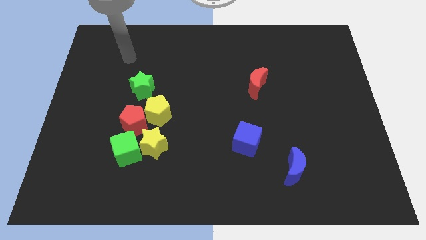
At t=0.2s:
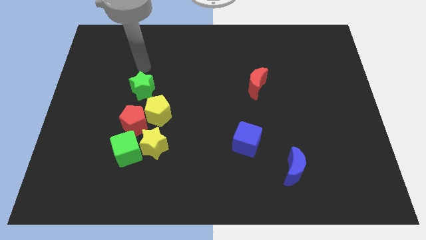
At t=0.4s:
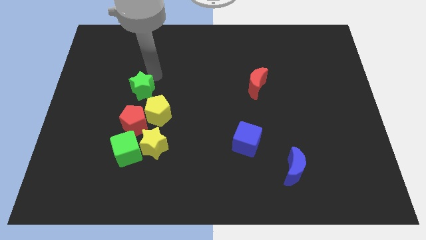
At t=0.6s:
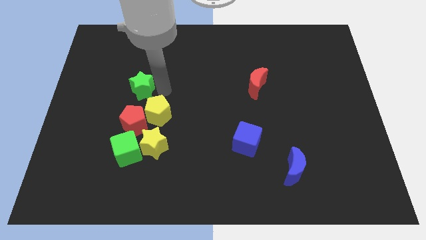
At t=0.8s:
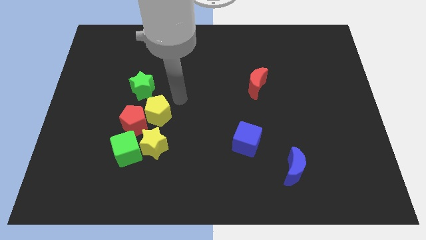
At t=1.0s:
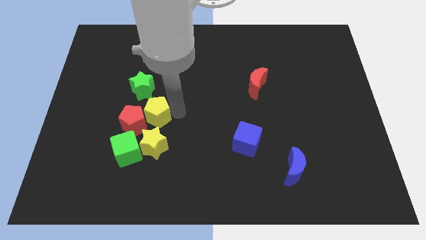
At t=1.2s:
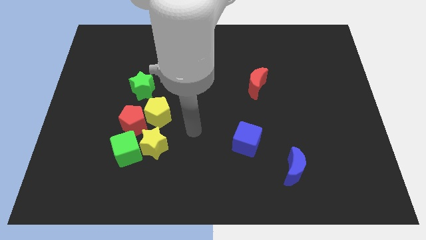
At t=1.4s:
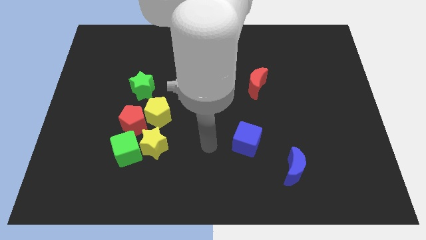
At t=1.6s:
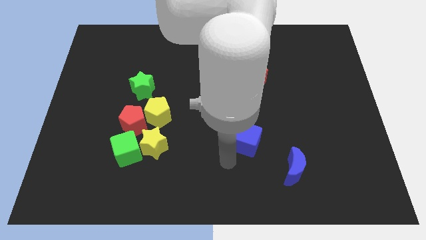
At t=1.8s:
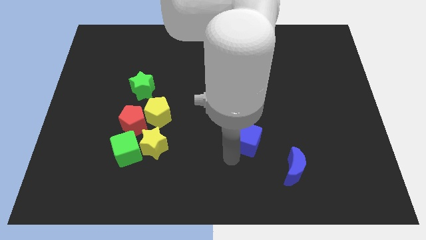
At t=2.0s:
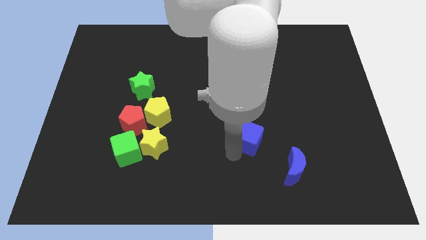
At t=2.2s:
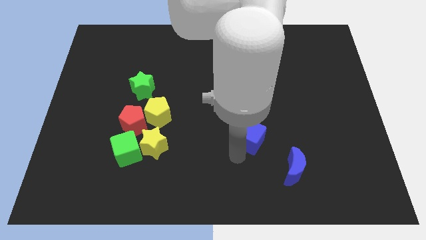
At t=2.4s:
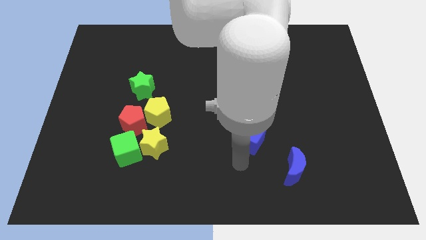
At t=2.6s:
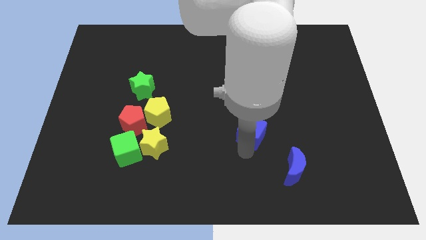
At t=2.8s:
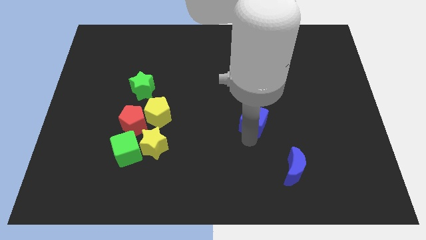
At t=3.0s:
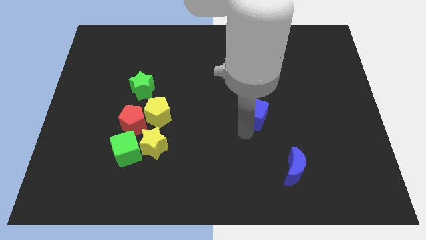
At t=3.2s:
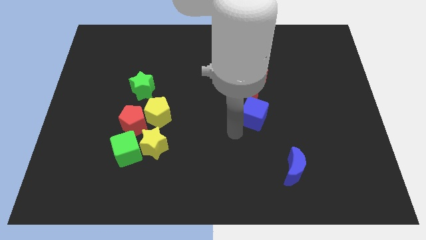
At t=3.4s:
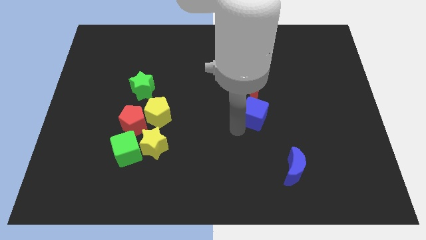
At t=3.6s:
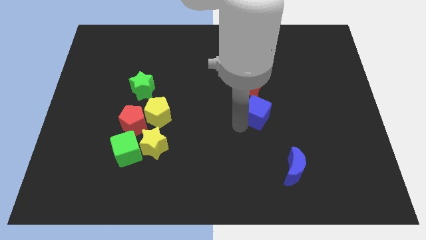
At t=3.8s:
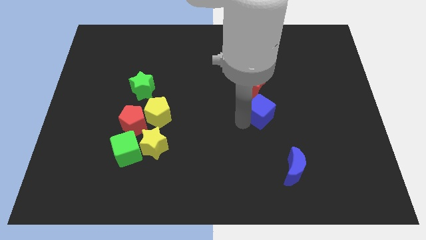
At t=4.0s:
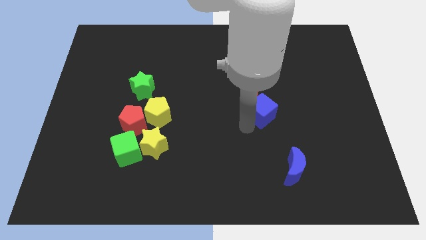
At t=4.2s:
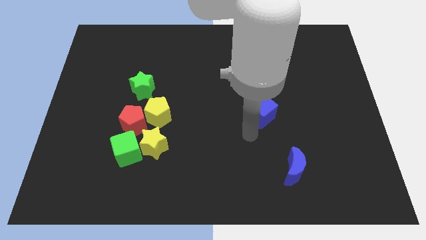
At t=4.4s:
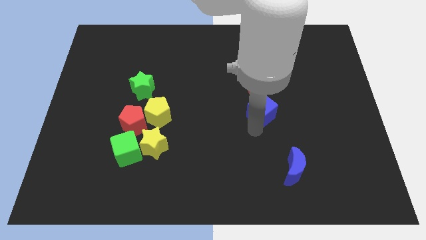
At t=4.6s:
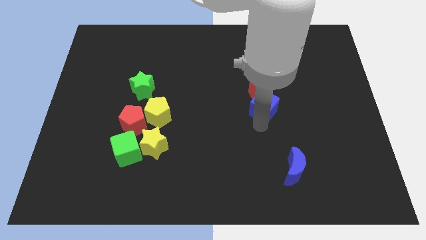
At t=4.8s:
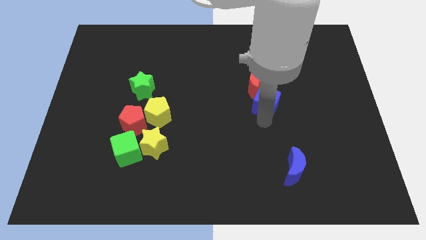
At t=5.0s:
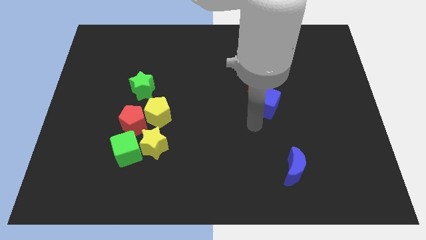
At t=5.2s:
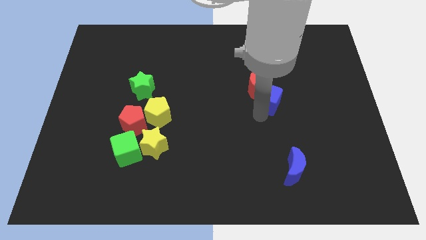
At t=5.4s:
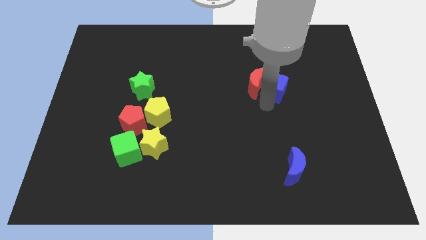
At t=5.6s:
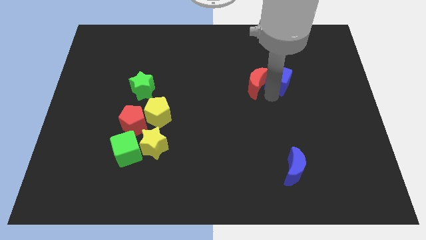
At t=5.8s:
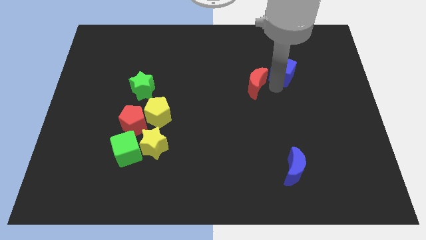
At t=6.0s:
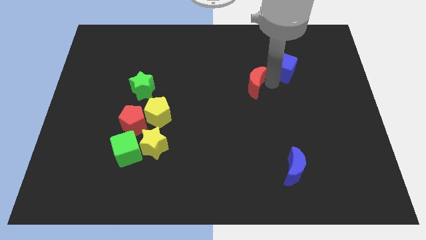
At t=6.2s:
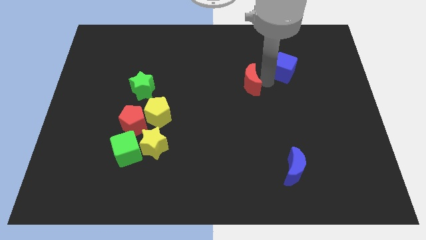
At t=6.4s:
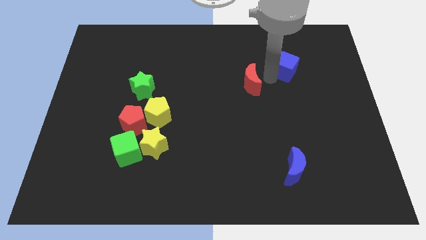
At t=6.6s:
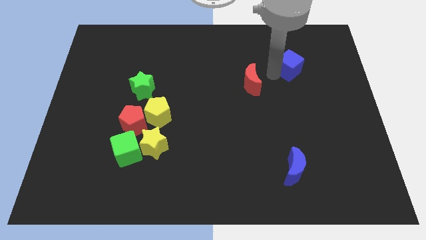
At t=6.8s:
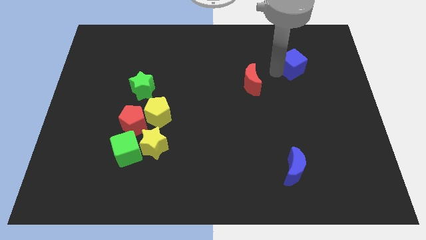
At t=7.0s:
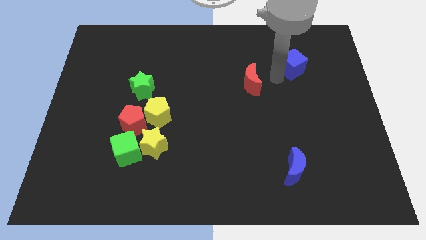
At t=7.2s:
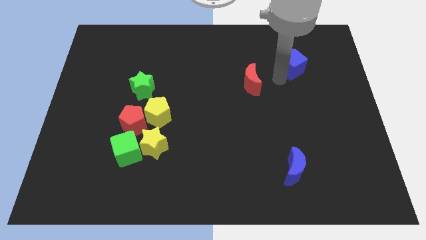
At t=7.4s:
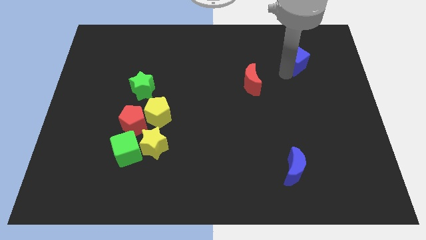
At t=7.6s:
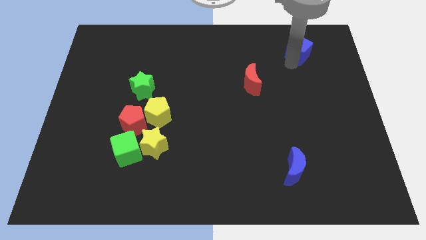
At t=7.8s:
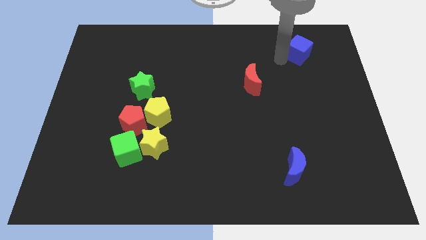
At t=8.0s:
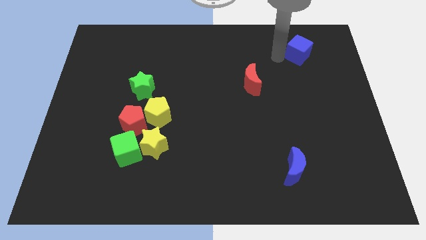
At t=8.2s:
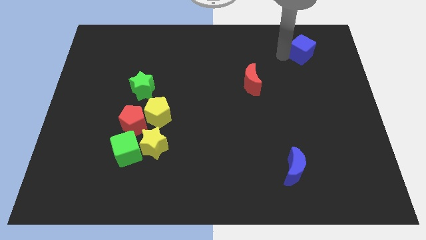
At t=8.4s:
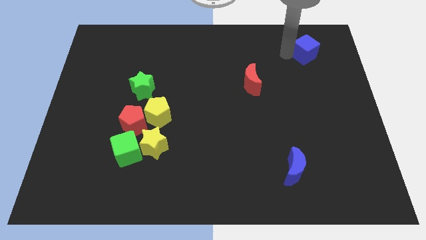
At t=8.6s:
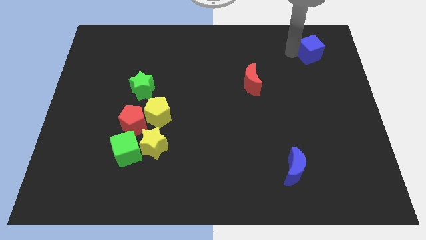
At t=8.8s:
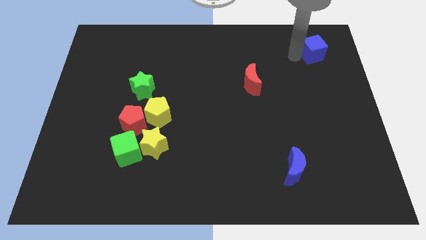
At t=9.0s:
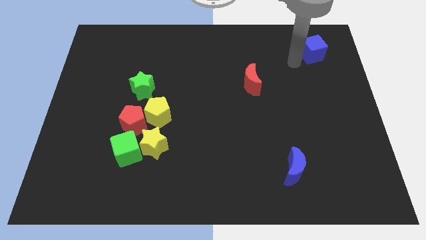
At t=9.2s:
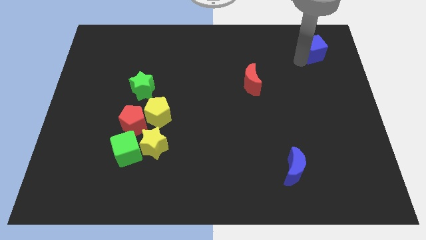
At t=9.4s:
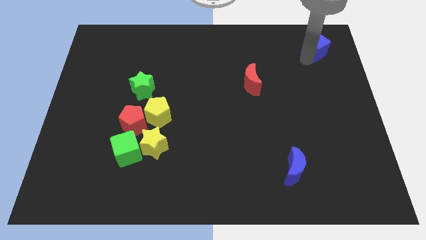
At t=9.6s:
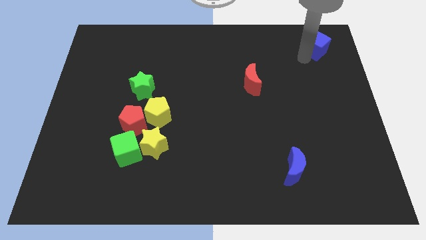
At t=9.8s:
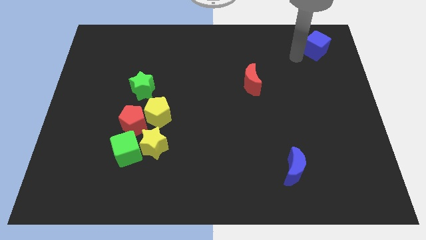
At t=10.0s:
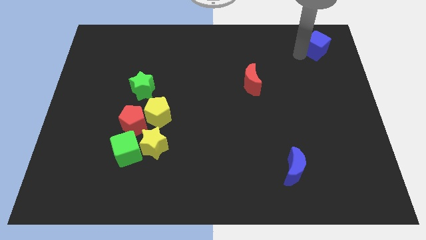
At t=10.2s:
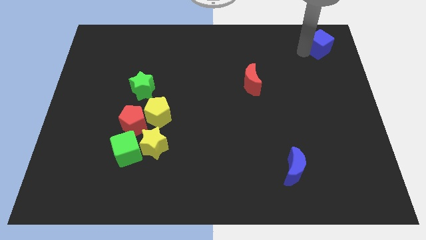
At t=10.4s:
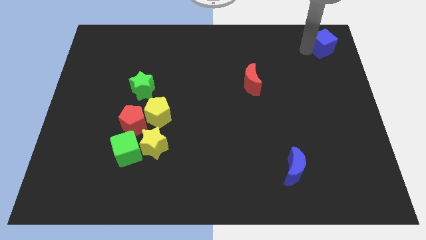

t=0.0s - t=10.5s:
push the blue cube to the top right

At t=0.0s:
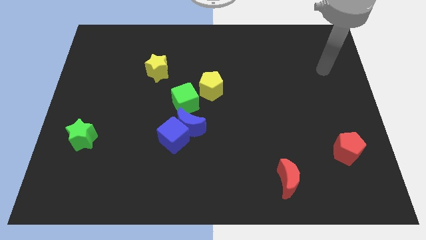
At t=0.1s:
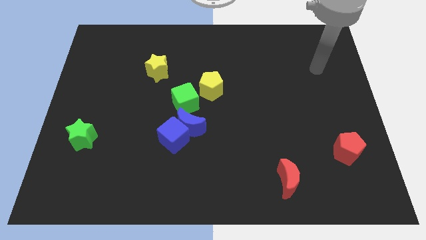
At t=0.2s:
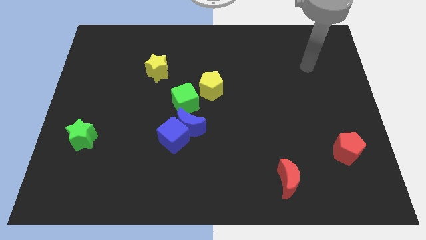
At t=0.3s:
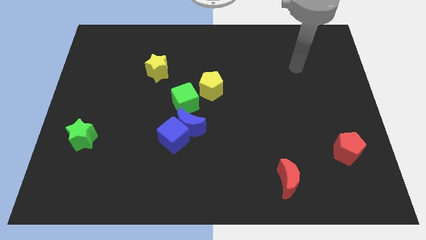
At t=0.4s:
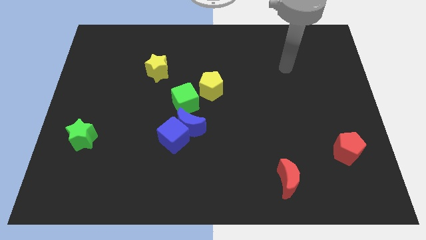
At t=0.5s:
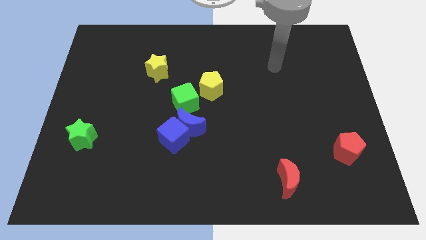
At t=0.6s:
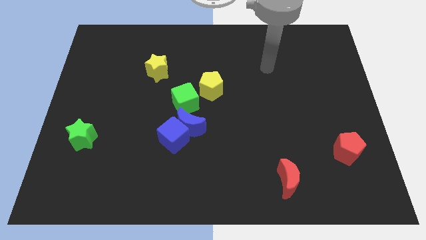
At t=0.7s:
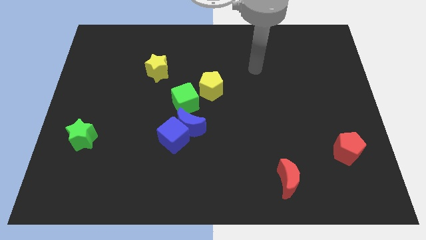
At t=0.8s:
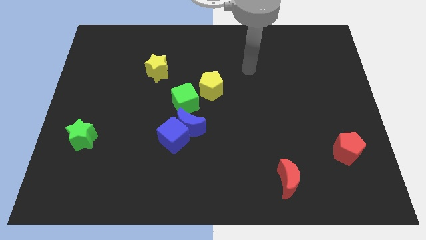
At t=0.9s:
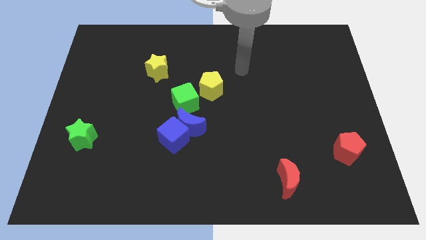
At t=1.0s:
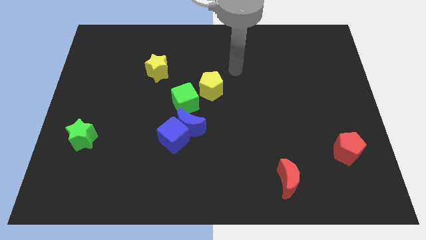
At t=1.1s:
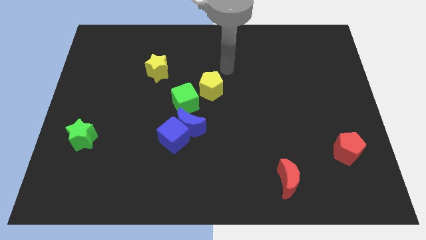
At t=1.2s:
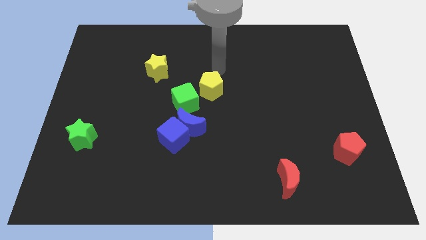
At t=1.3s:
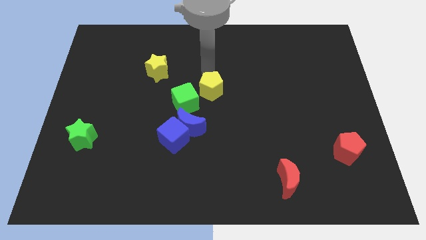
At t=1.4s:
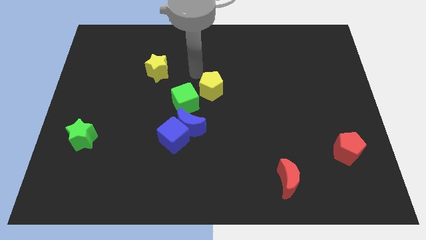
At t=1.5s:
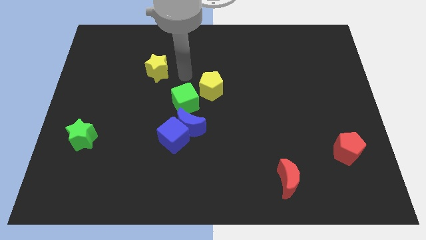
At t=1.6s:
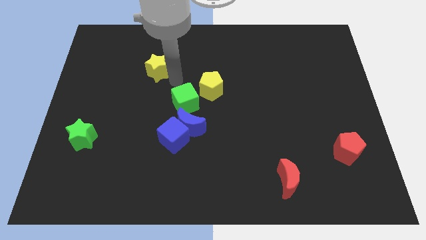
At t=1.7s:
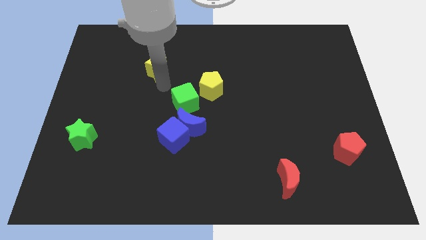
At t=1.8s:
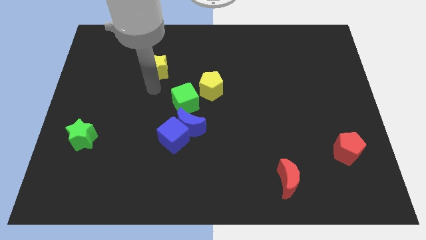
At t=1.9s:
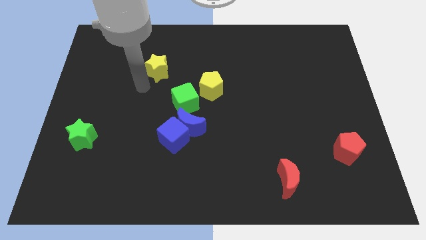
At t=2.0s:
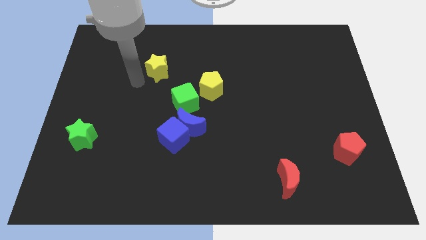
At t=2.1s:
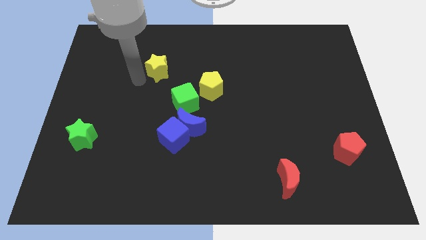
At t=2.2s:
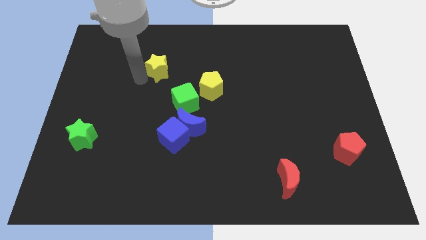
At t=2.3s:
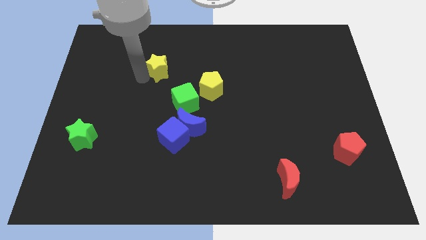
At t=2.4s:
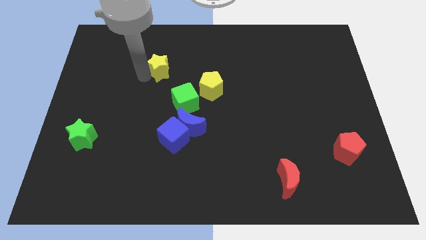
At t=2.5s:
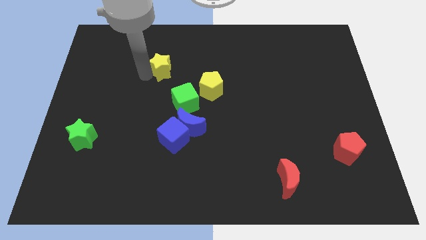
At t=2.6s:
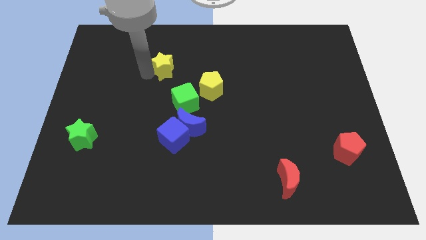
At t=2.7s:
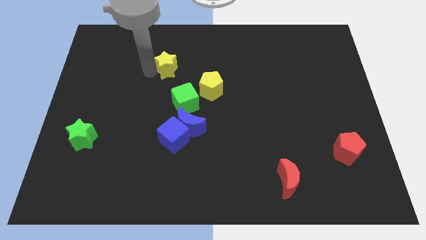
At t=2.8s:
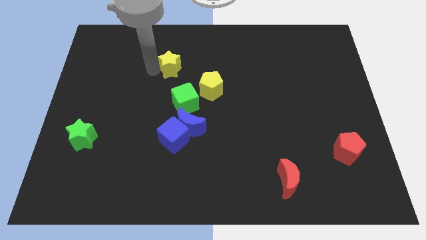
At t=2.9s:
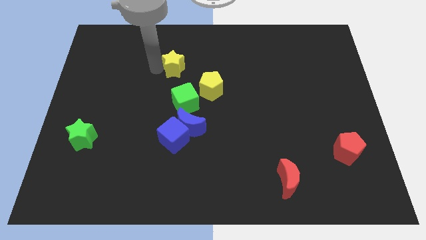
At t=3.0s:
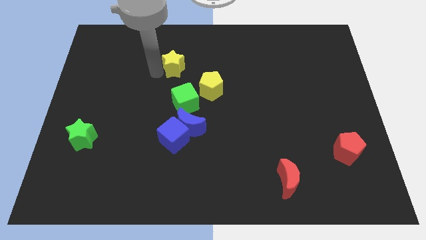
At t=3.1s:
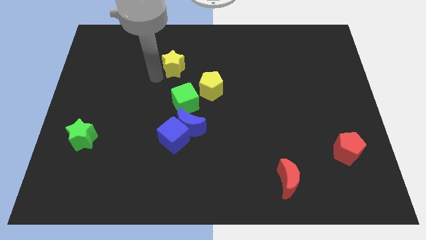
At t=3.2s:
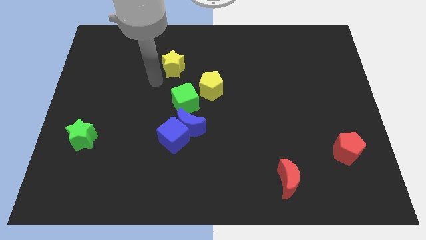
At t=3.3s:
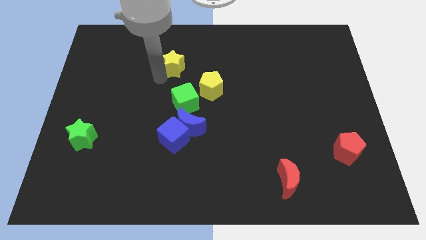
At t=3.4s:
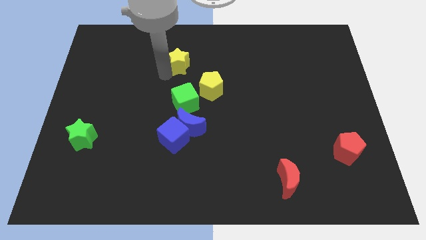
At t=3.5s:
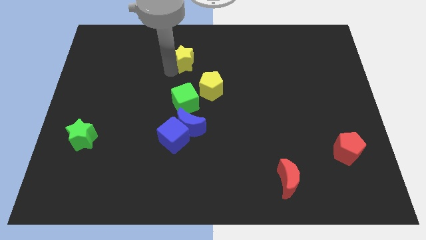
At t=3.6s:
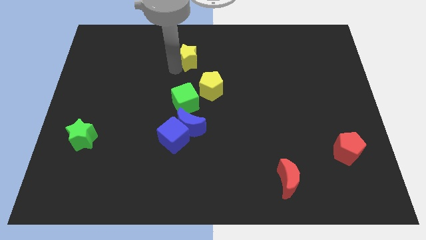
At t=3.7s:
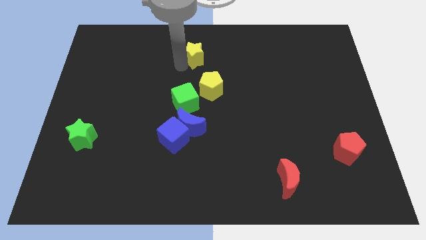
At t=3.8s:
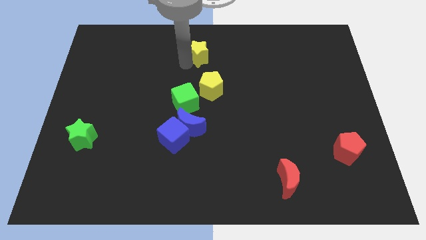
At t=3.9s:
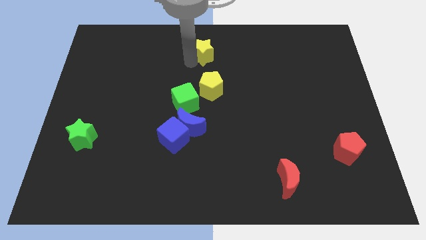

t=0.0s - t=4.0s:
slide the yellow star to the top
